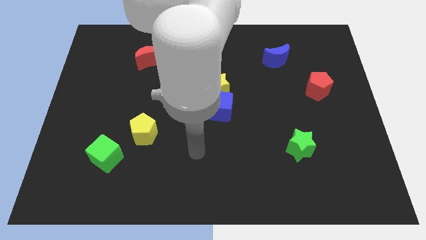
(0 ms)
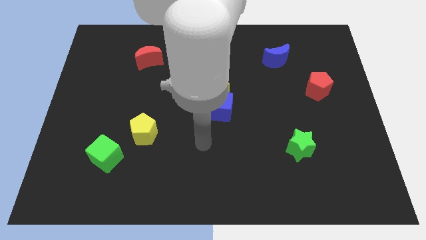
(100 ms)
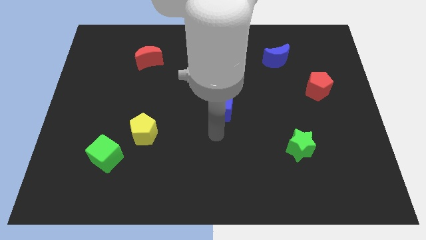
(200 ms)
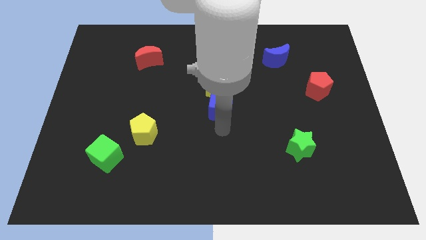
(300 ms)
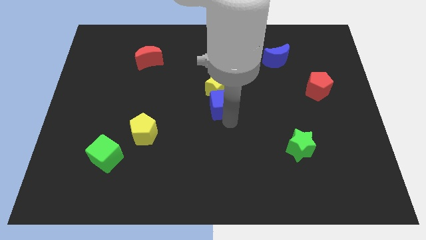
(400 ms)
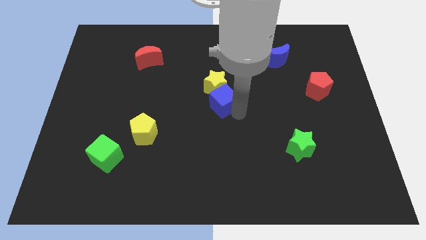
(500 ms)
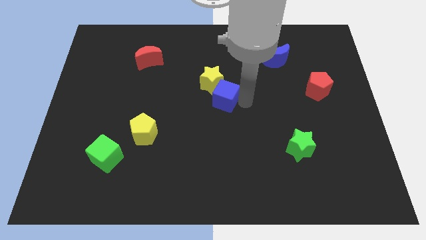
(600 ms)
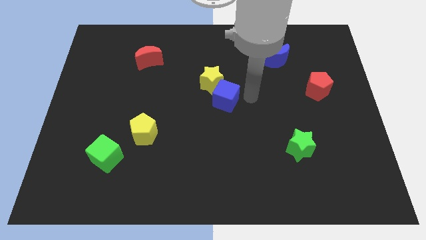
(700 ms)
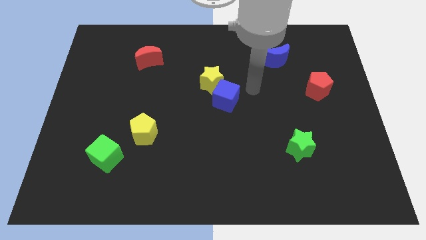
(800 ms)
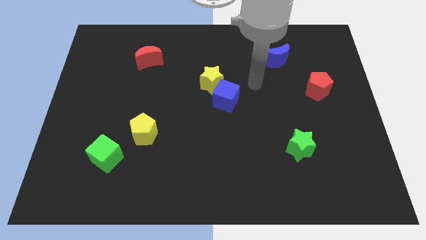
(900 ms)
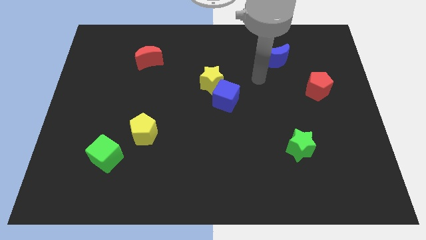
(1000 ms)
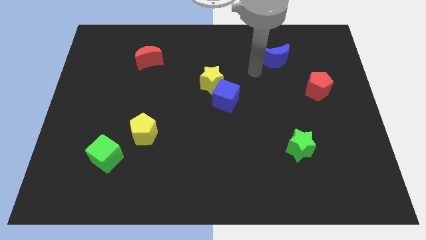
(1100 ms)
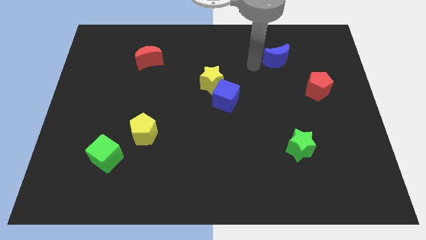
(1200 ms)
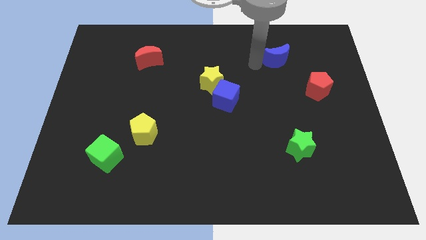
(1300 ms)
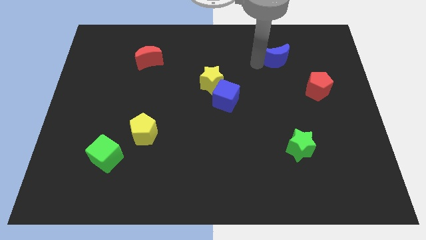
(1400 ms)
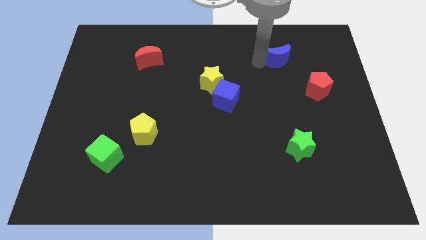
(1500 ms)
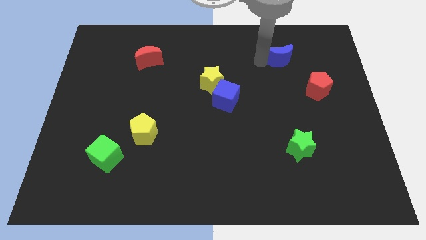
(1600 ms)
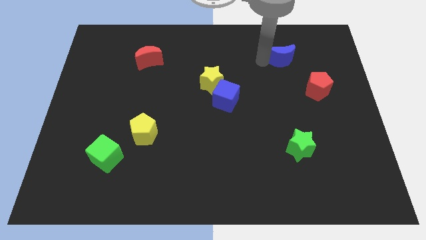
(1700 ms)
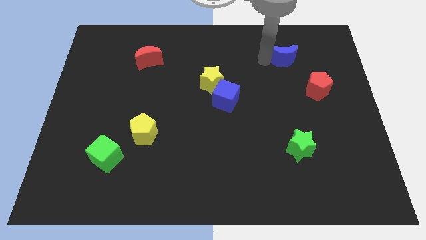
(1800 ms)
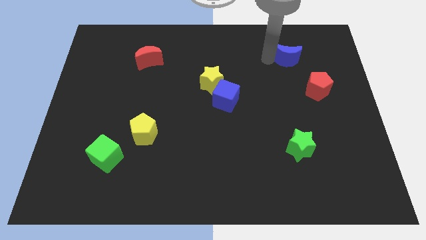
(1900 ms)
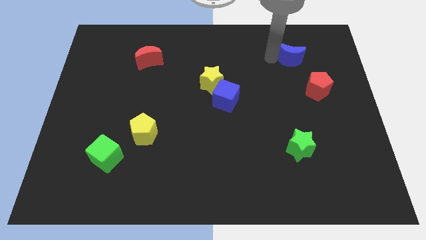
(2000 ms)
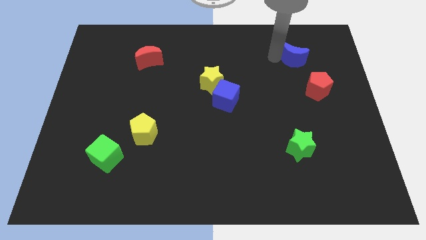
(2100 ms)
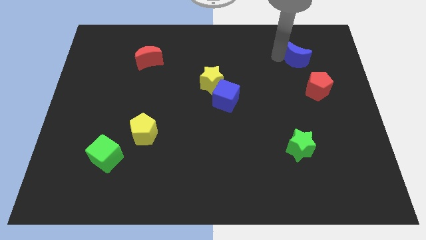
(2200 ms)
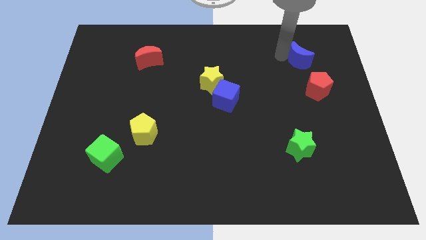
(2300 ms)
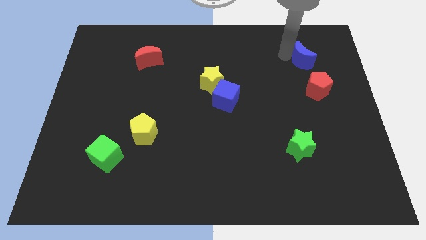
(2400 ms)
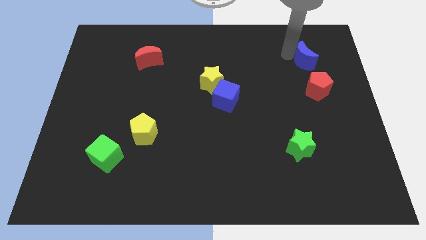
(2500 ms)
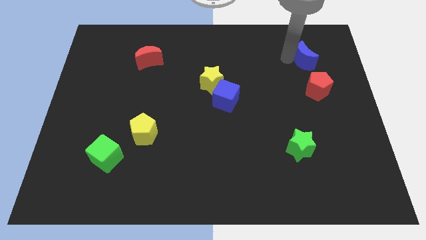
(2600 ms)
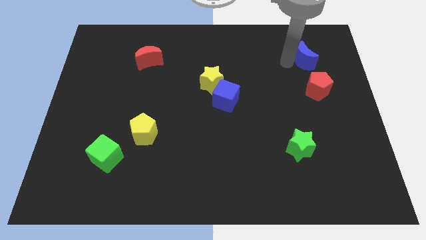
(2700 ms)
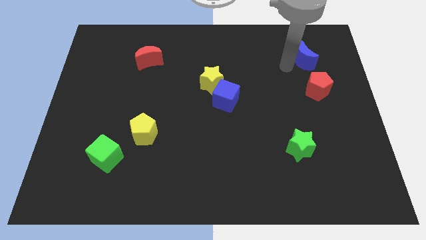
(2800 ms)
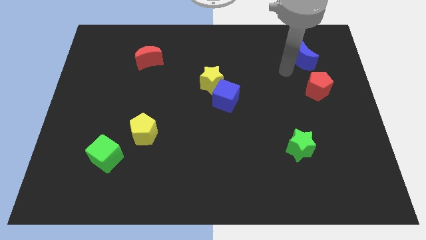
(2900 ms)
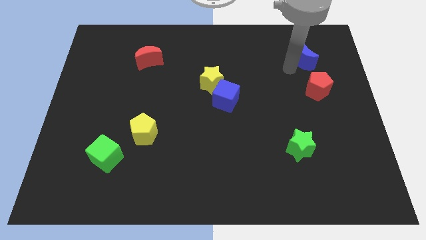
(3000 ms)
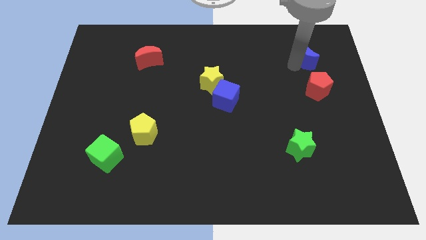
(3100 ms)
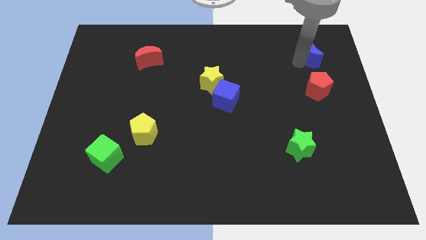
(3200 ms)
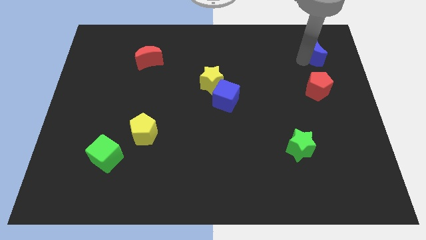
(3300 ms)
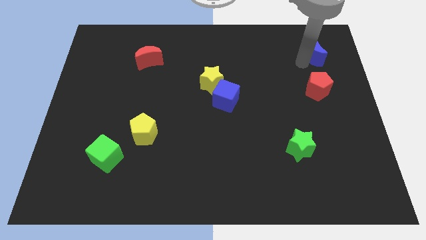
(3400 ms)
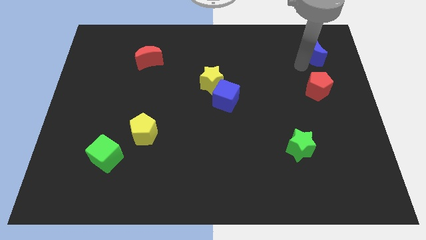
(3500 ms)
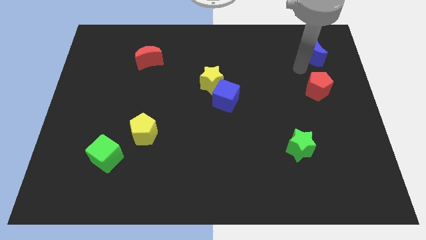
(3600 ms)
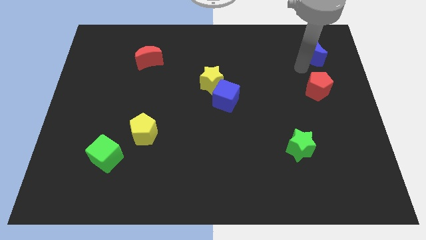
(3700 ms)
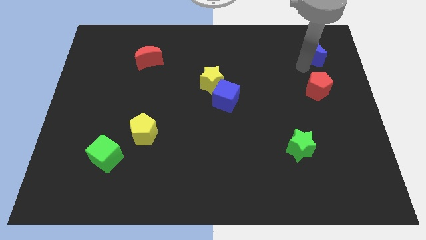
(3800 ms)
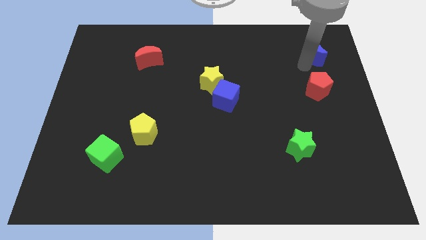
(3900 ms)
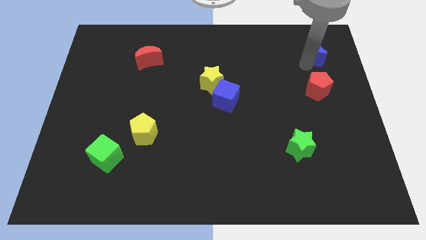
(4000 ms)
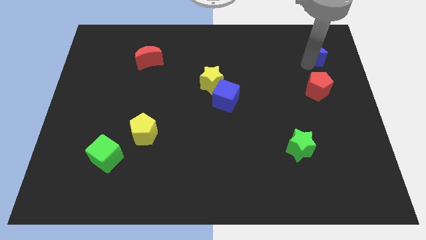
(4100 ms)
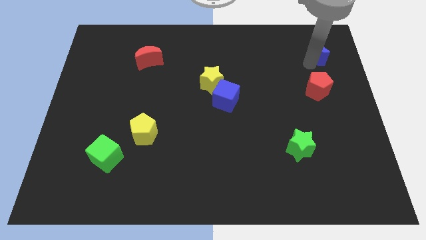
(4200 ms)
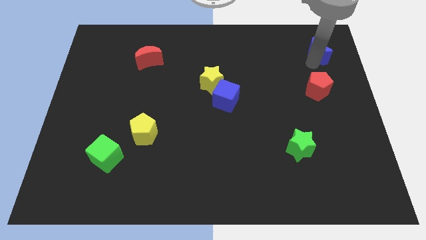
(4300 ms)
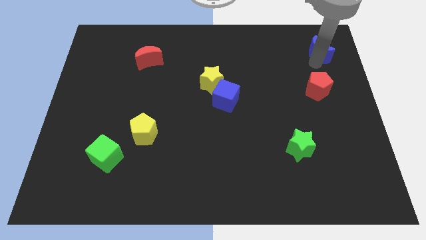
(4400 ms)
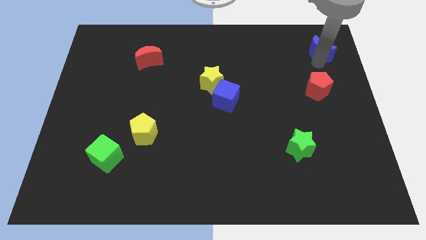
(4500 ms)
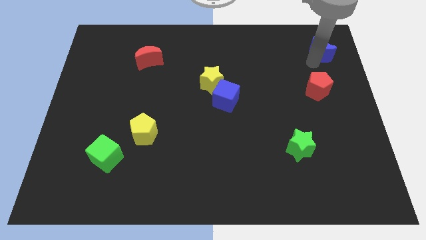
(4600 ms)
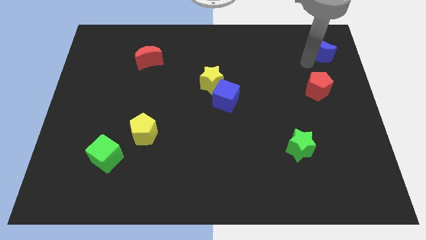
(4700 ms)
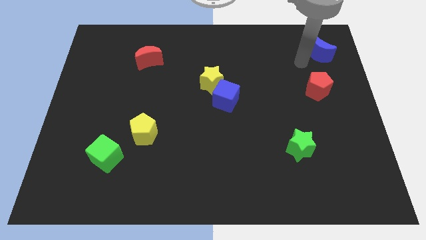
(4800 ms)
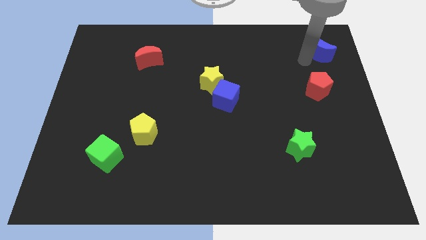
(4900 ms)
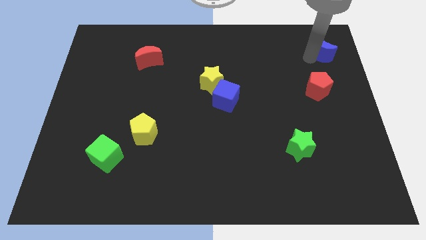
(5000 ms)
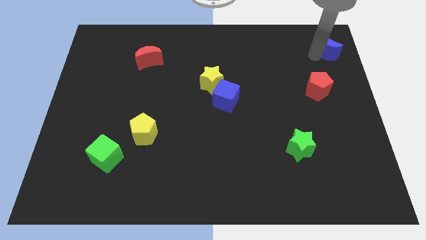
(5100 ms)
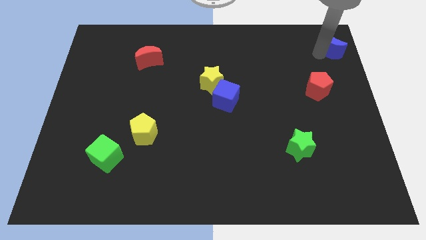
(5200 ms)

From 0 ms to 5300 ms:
slide the blue moon to the upper right corner
